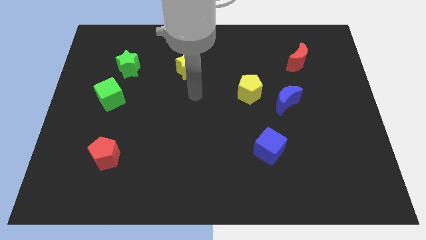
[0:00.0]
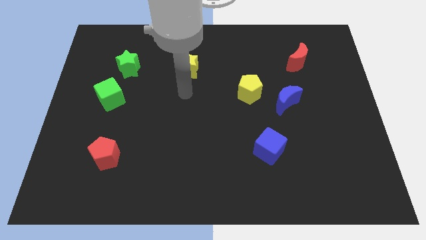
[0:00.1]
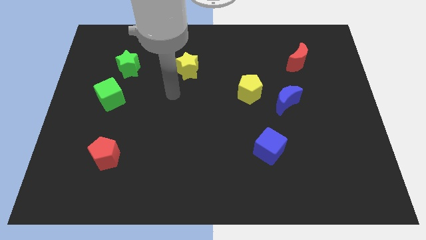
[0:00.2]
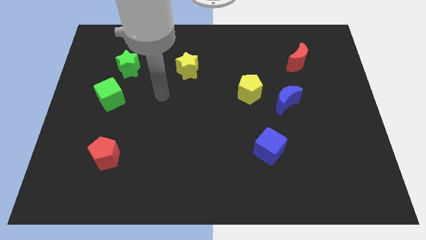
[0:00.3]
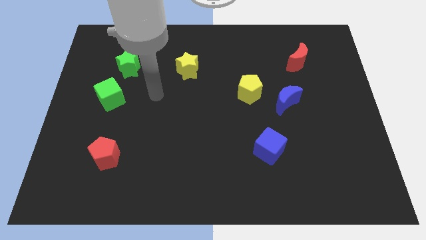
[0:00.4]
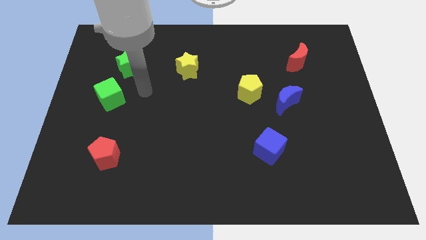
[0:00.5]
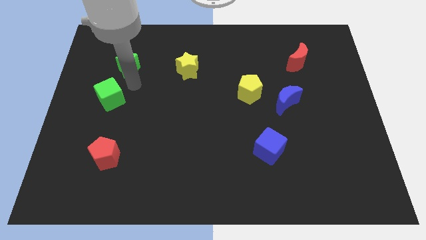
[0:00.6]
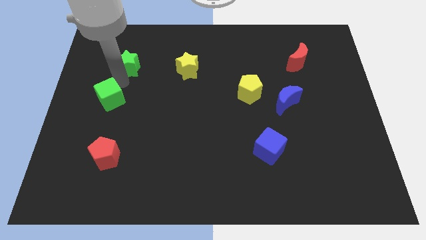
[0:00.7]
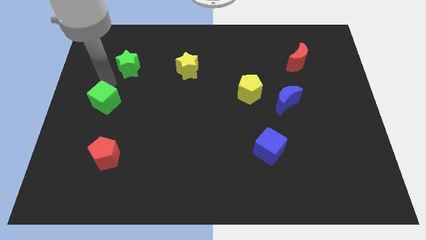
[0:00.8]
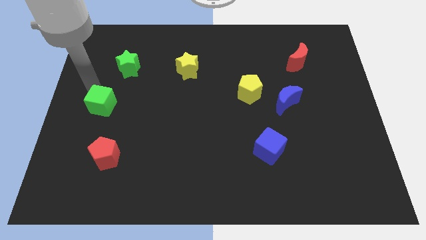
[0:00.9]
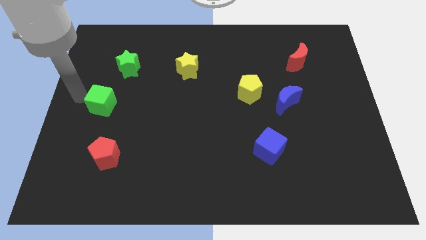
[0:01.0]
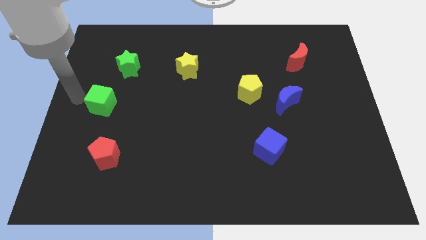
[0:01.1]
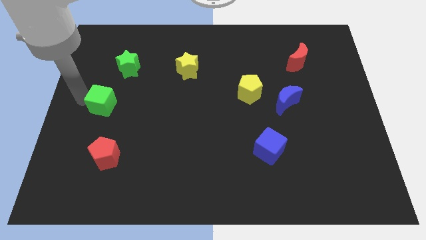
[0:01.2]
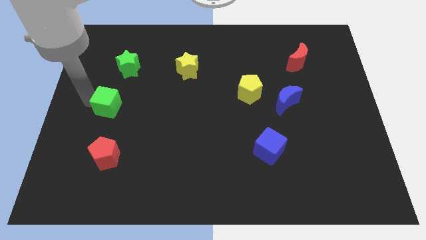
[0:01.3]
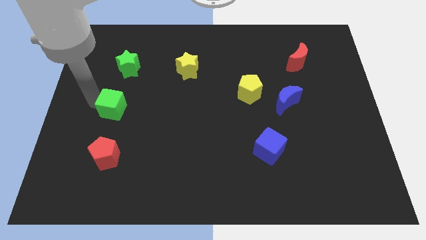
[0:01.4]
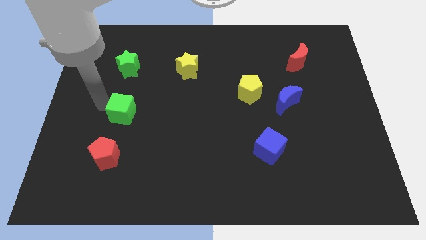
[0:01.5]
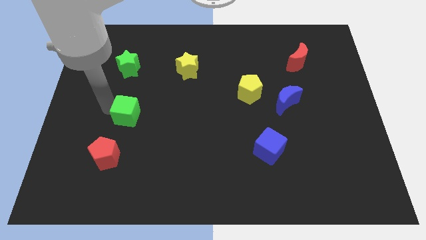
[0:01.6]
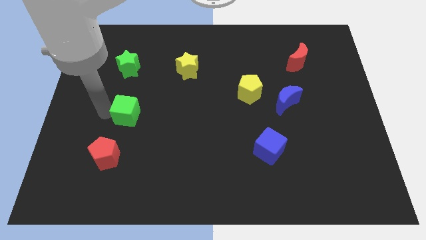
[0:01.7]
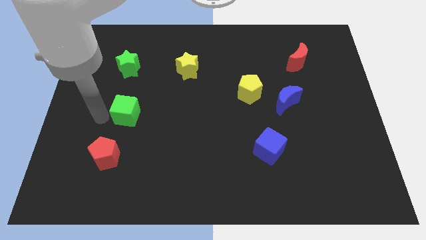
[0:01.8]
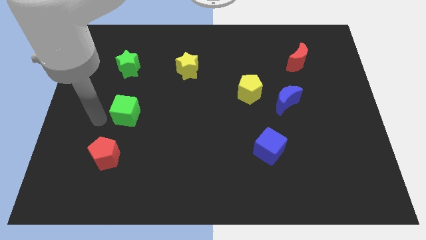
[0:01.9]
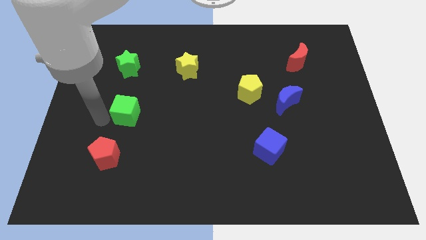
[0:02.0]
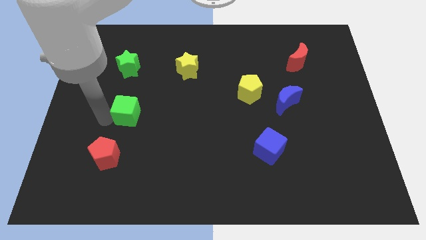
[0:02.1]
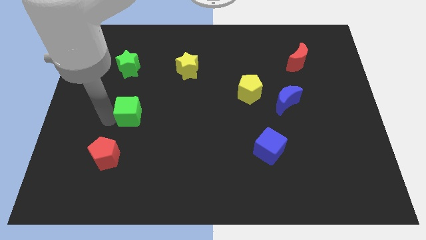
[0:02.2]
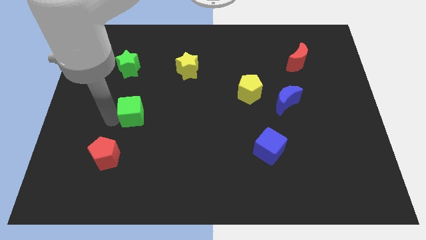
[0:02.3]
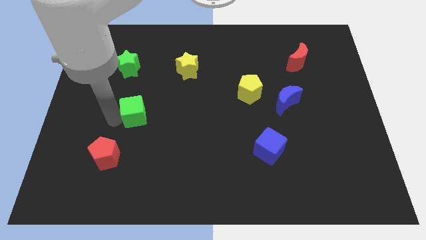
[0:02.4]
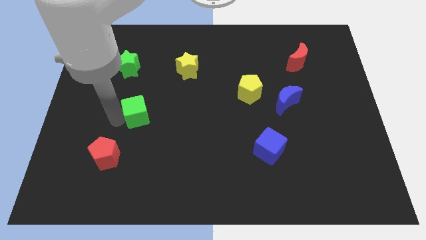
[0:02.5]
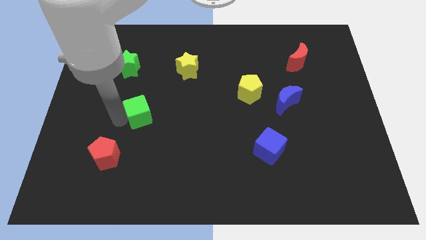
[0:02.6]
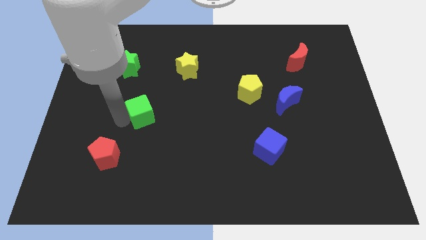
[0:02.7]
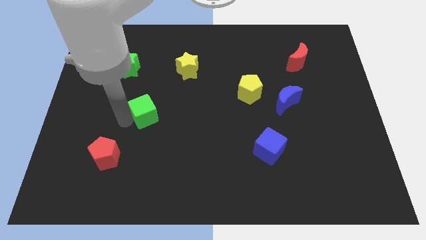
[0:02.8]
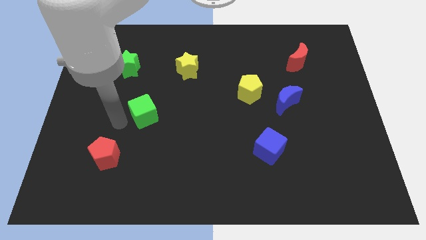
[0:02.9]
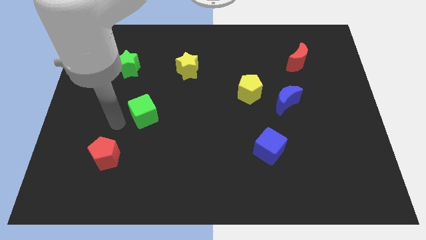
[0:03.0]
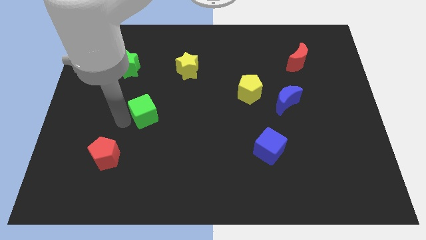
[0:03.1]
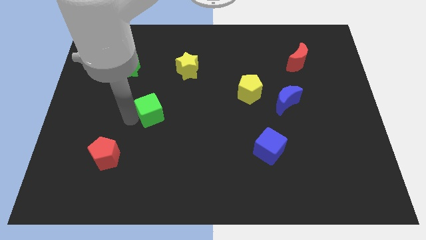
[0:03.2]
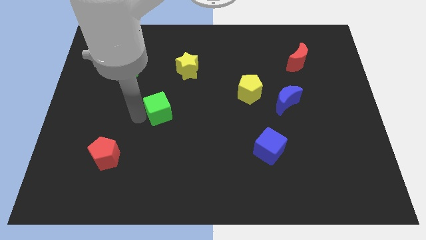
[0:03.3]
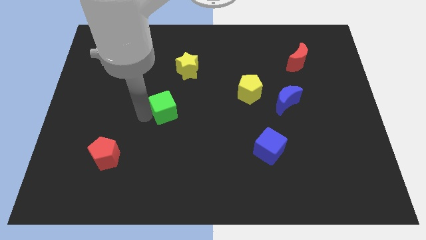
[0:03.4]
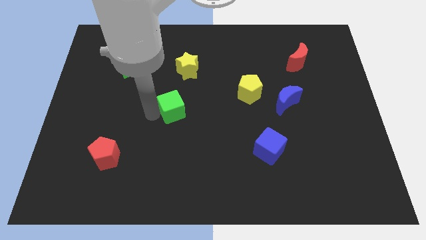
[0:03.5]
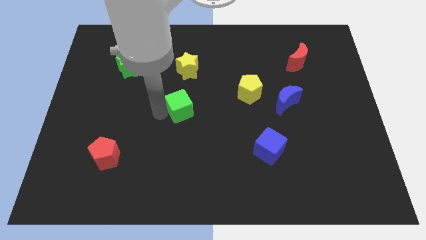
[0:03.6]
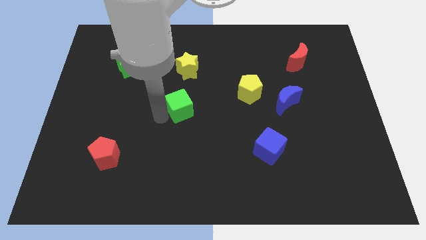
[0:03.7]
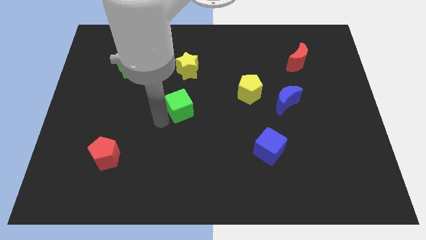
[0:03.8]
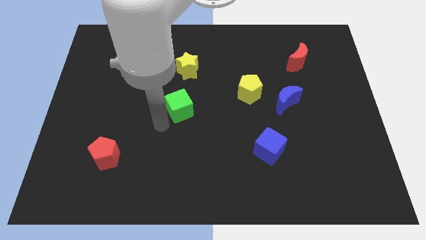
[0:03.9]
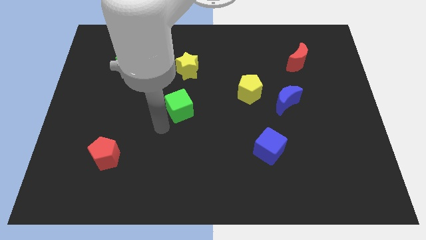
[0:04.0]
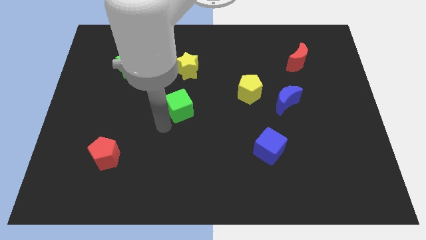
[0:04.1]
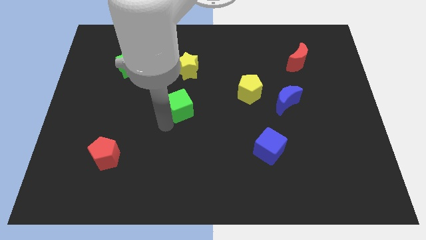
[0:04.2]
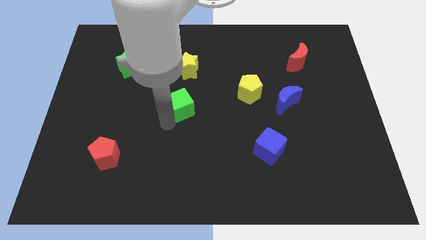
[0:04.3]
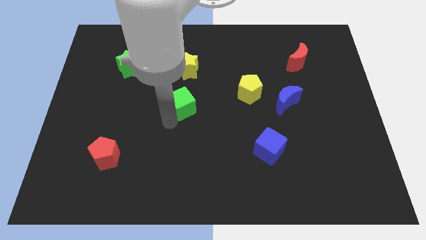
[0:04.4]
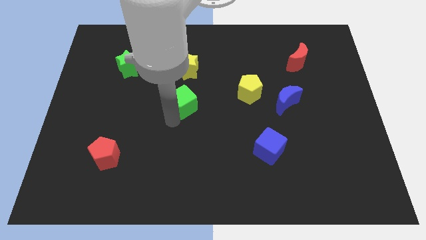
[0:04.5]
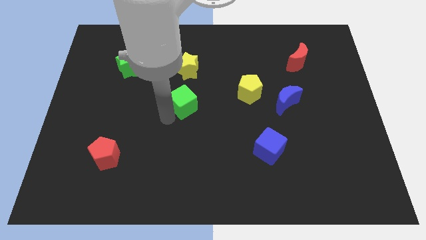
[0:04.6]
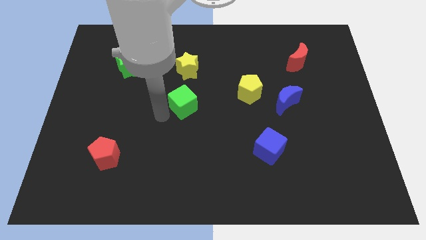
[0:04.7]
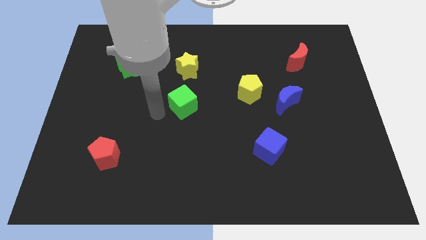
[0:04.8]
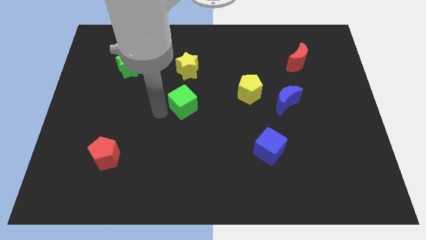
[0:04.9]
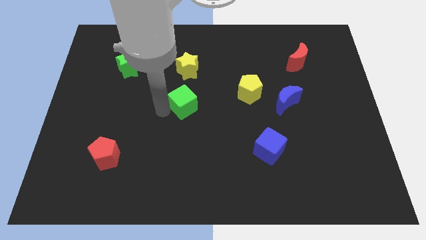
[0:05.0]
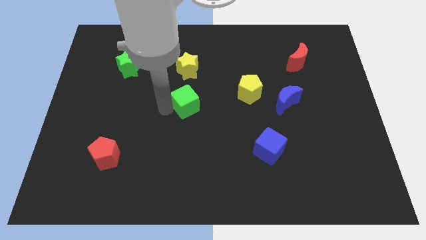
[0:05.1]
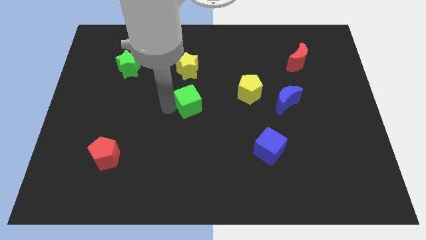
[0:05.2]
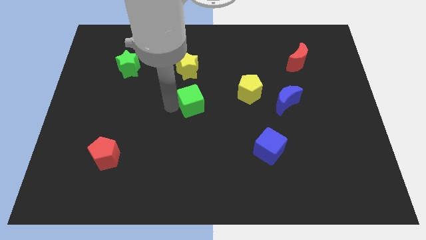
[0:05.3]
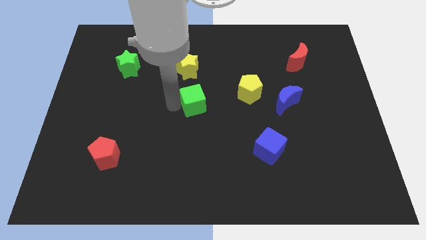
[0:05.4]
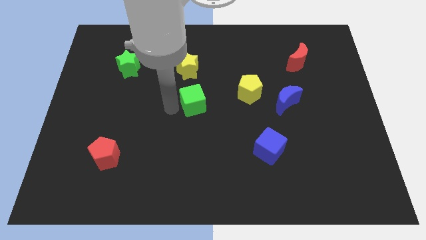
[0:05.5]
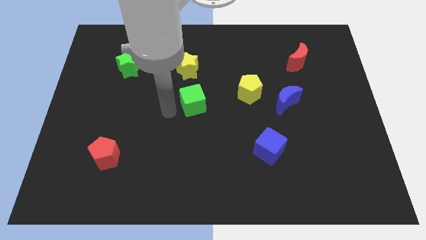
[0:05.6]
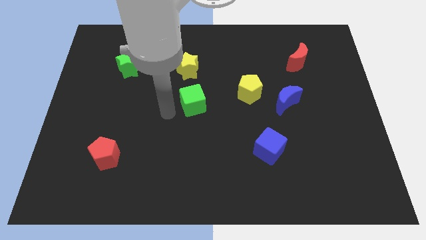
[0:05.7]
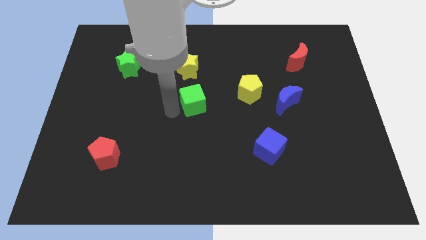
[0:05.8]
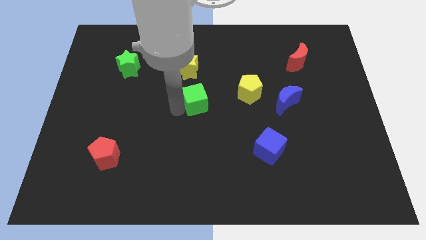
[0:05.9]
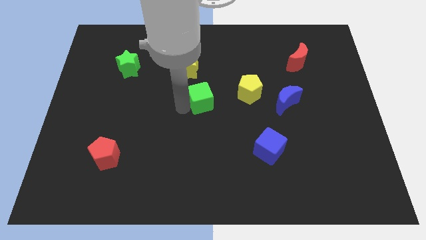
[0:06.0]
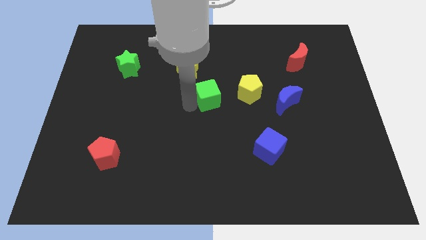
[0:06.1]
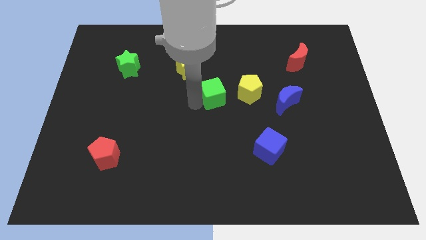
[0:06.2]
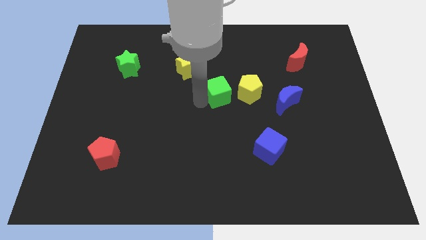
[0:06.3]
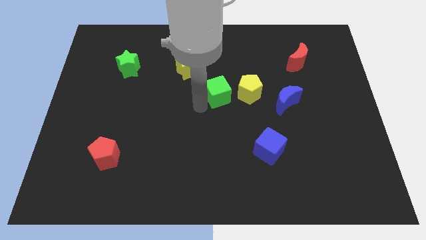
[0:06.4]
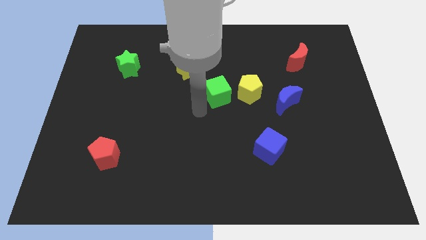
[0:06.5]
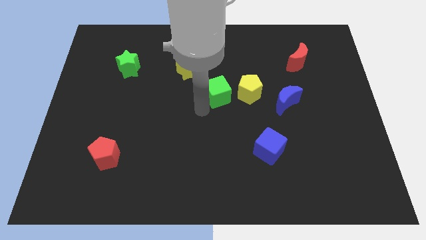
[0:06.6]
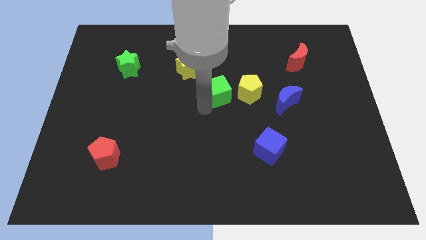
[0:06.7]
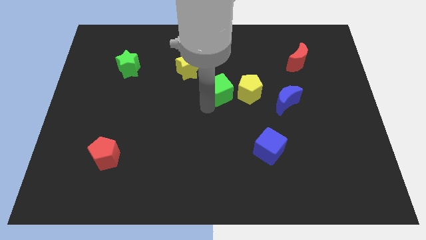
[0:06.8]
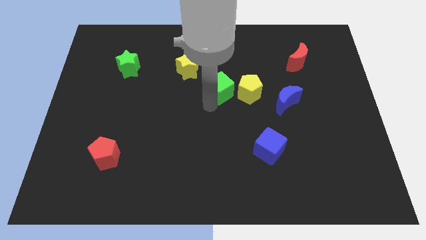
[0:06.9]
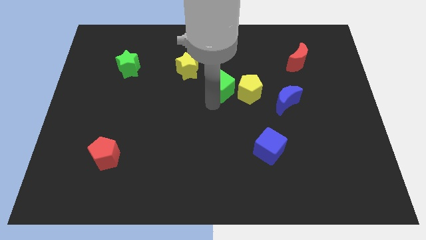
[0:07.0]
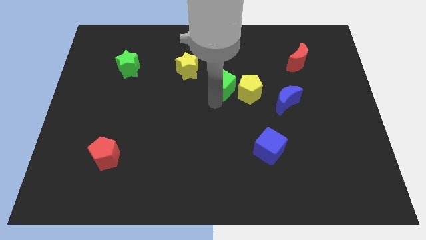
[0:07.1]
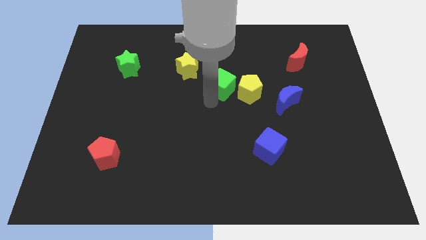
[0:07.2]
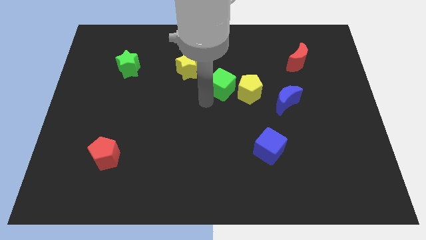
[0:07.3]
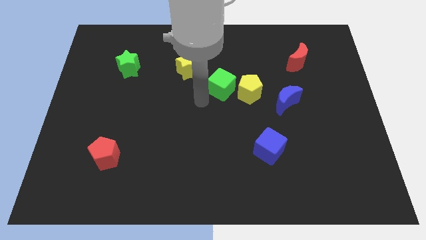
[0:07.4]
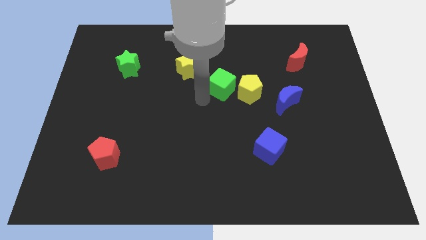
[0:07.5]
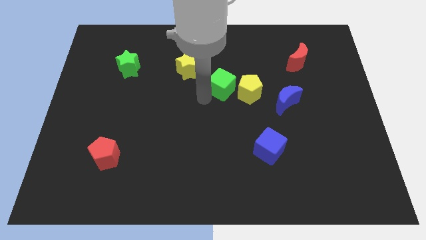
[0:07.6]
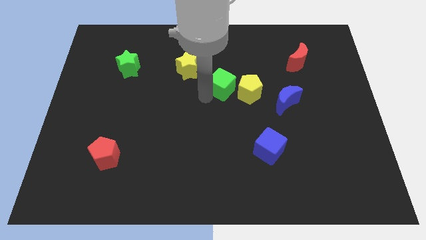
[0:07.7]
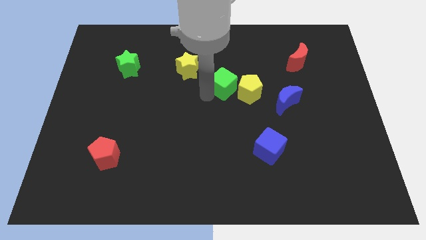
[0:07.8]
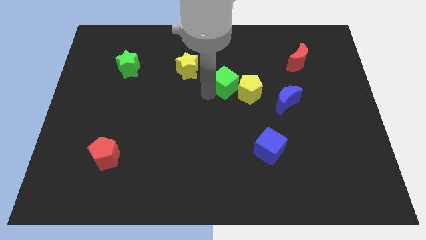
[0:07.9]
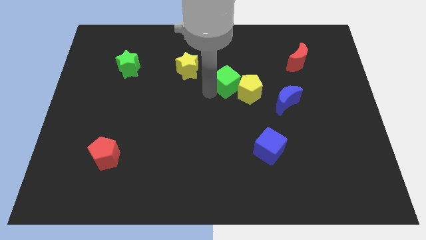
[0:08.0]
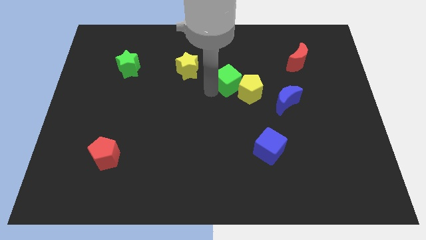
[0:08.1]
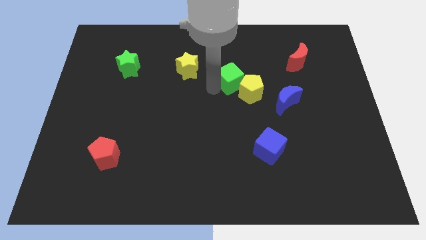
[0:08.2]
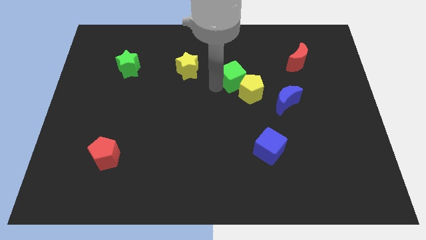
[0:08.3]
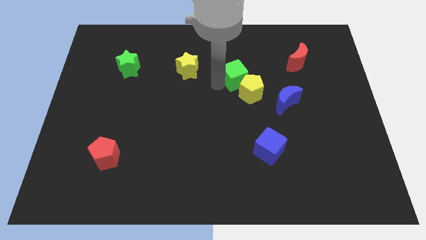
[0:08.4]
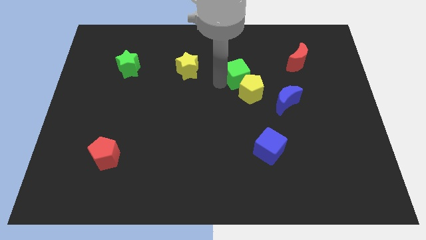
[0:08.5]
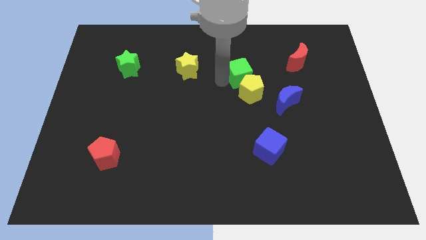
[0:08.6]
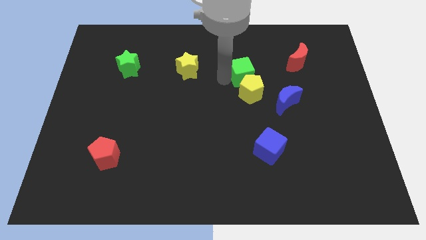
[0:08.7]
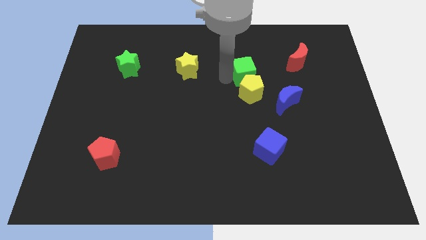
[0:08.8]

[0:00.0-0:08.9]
put the green cube to the top left side of the blue moon
